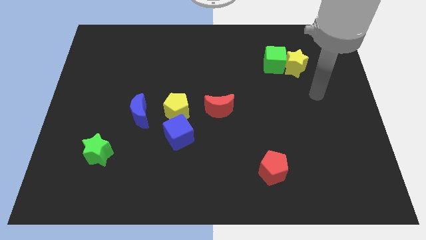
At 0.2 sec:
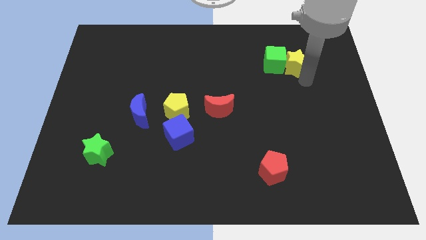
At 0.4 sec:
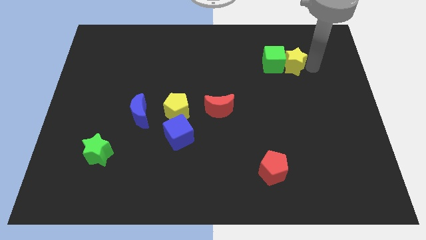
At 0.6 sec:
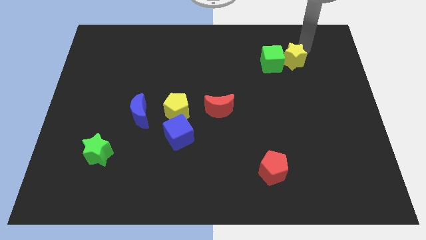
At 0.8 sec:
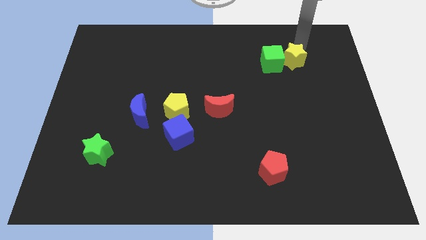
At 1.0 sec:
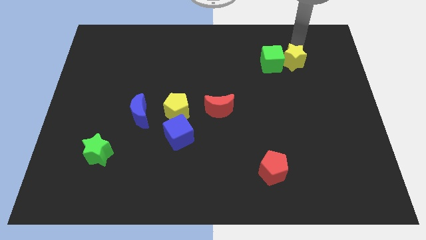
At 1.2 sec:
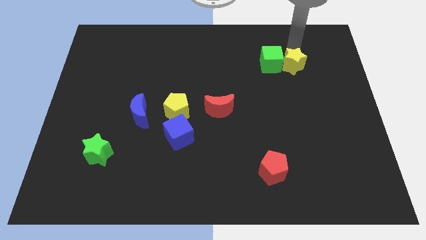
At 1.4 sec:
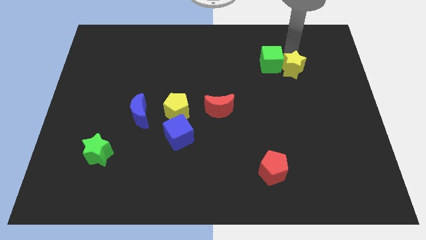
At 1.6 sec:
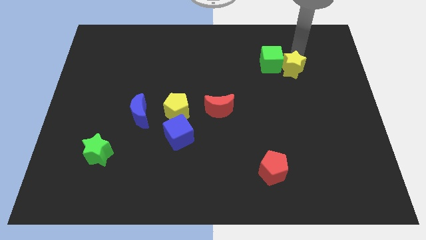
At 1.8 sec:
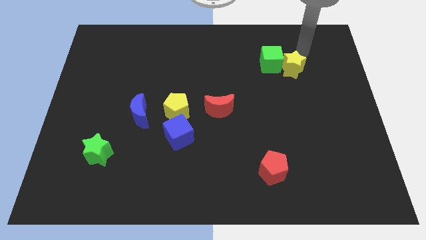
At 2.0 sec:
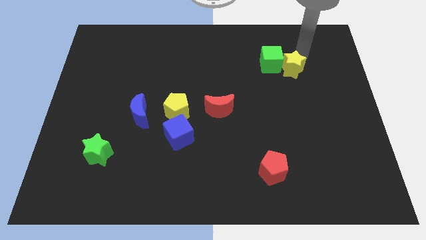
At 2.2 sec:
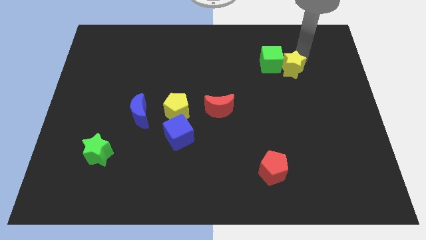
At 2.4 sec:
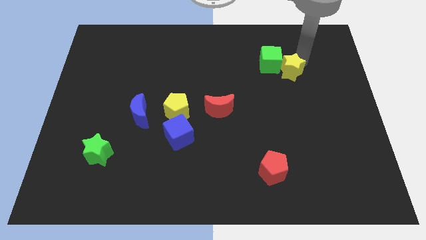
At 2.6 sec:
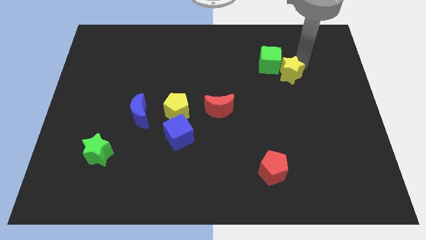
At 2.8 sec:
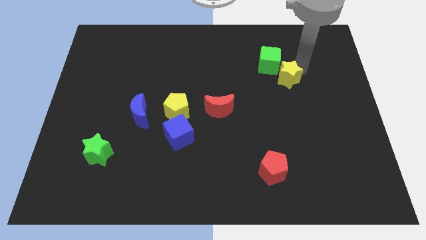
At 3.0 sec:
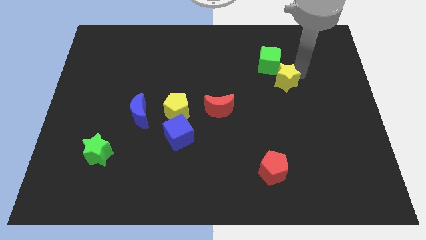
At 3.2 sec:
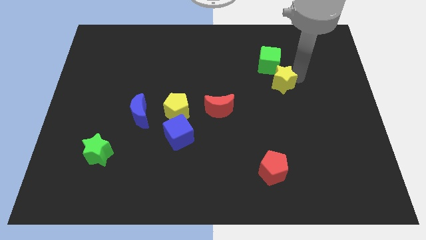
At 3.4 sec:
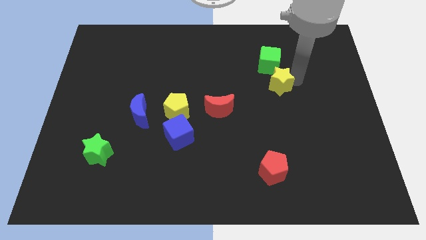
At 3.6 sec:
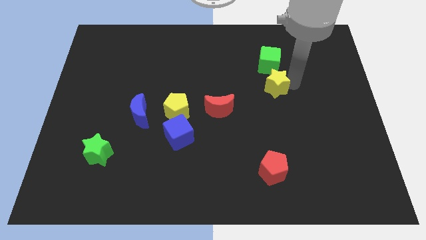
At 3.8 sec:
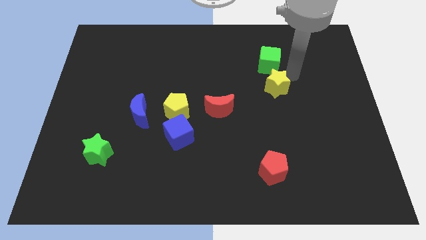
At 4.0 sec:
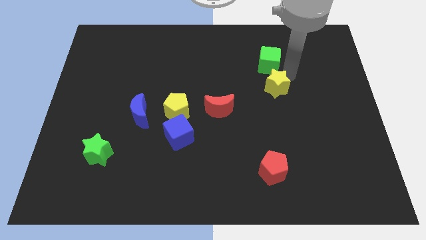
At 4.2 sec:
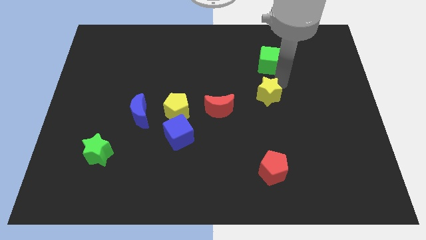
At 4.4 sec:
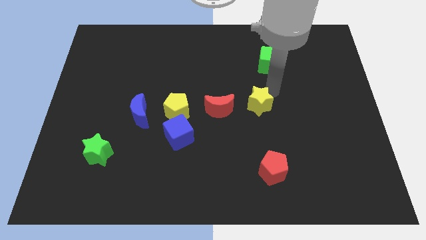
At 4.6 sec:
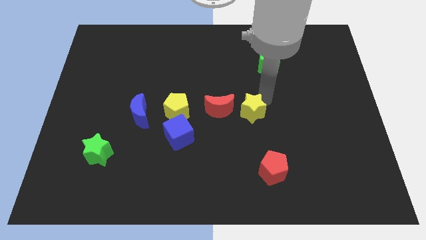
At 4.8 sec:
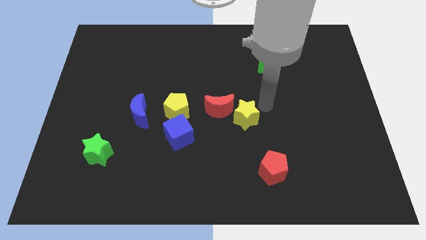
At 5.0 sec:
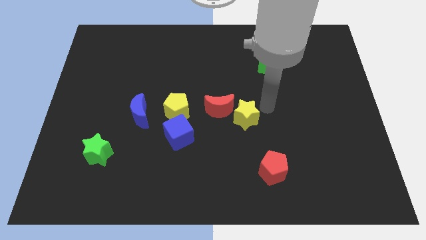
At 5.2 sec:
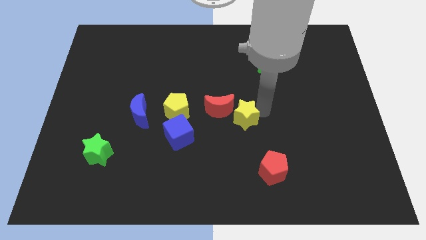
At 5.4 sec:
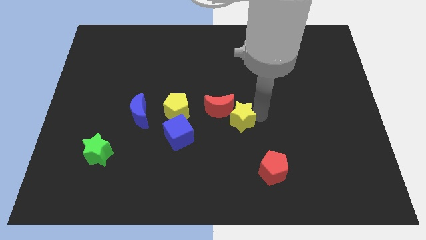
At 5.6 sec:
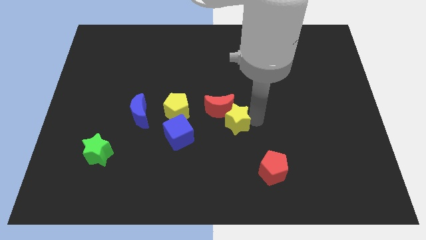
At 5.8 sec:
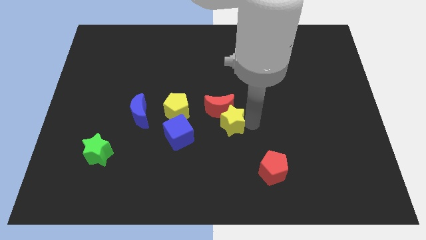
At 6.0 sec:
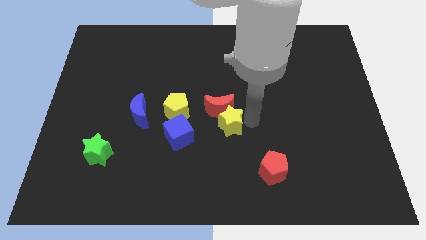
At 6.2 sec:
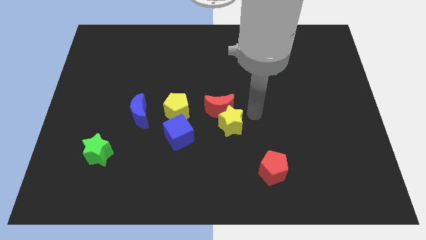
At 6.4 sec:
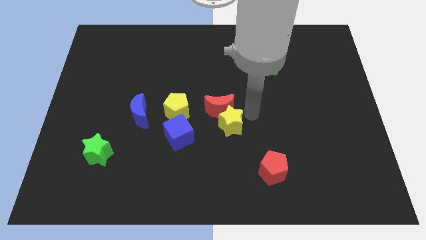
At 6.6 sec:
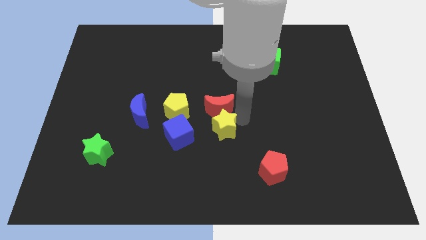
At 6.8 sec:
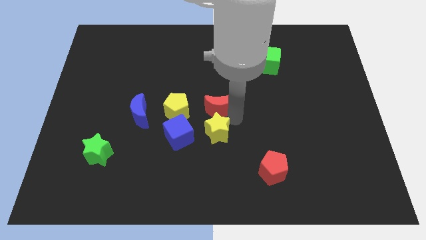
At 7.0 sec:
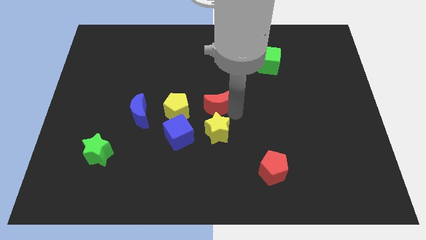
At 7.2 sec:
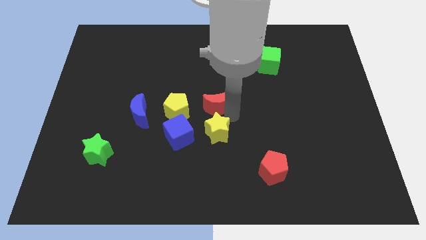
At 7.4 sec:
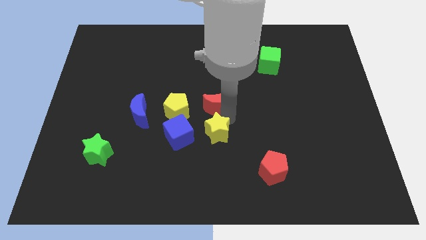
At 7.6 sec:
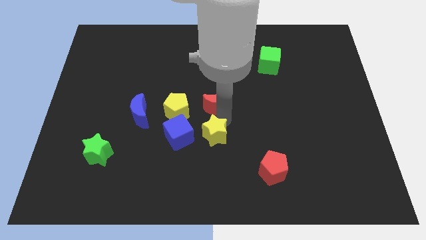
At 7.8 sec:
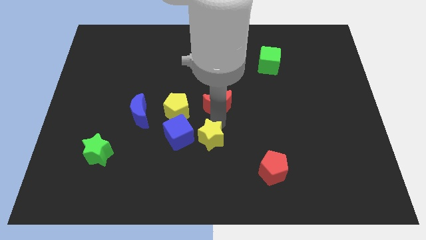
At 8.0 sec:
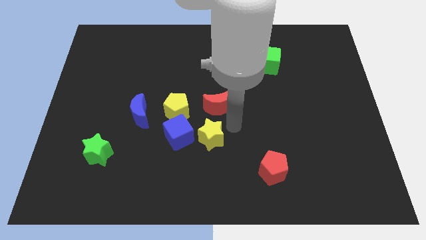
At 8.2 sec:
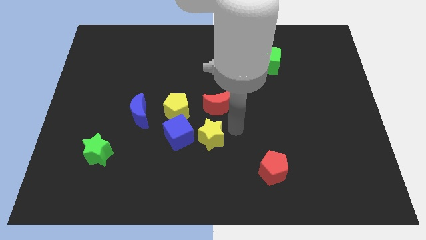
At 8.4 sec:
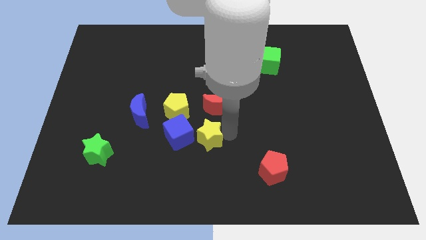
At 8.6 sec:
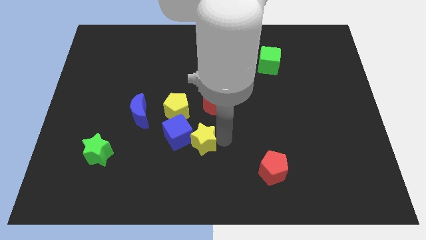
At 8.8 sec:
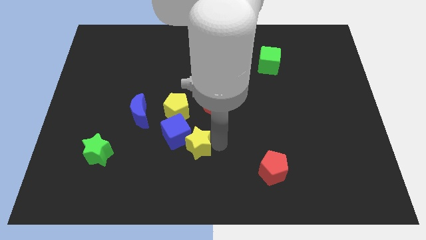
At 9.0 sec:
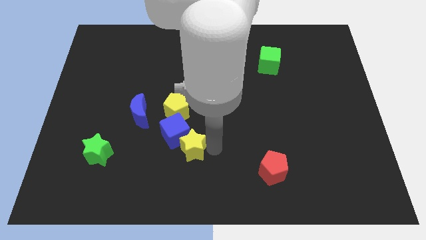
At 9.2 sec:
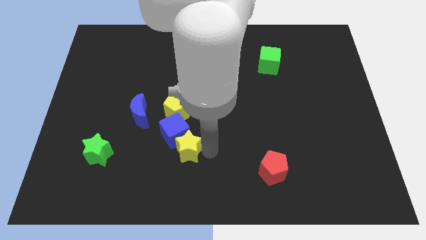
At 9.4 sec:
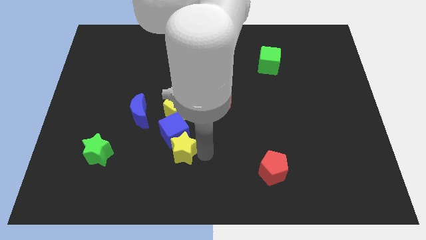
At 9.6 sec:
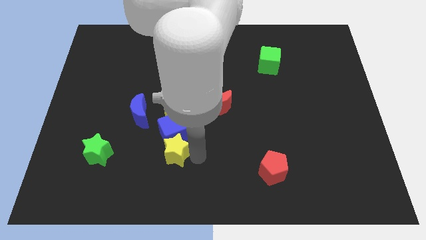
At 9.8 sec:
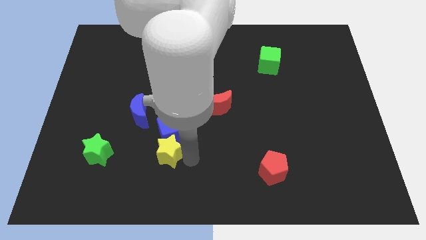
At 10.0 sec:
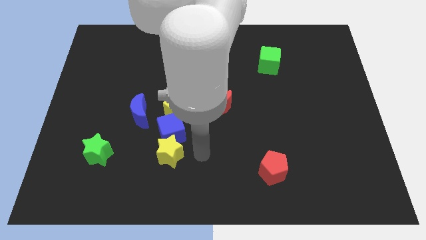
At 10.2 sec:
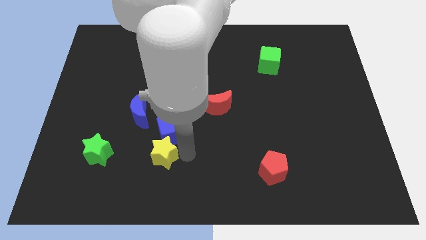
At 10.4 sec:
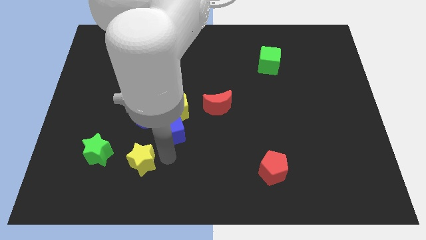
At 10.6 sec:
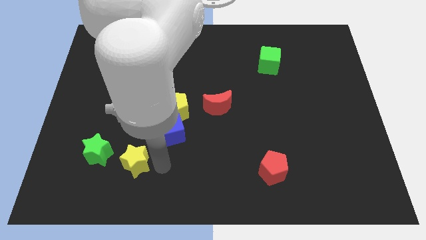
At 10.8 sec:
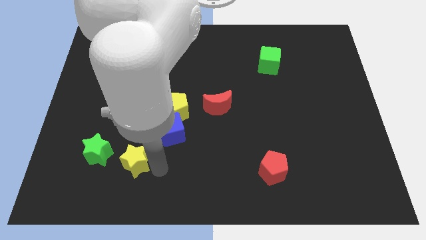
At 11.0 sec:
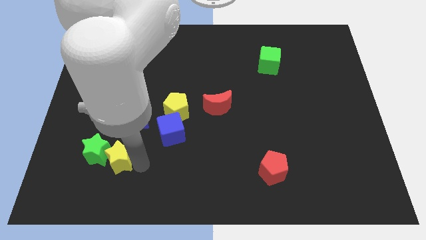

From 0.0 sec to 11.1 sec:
move the yellow star close to the green star
